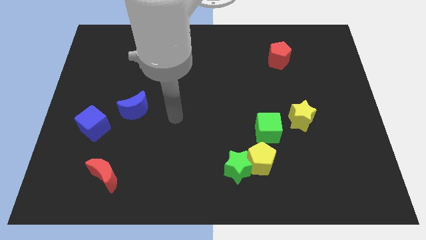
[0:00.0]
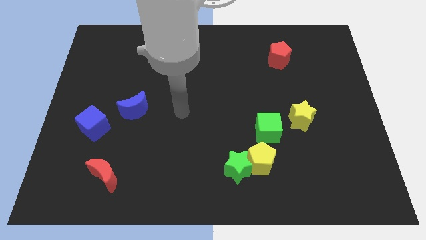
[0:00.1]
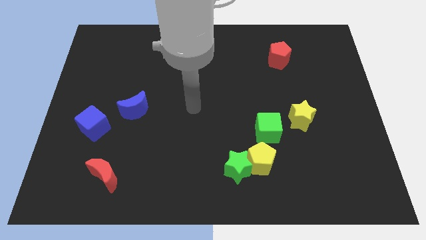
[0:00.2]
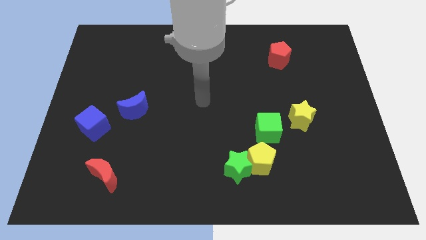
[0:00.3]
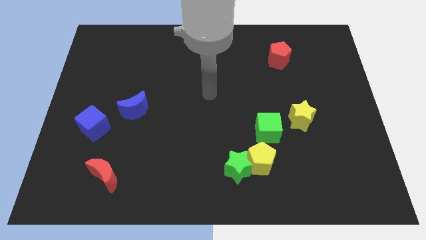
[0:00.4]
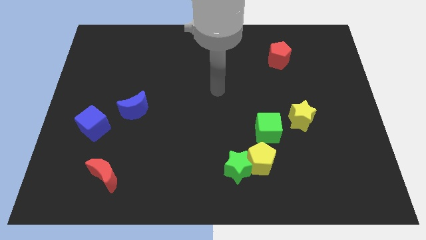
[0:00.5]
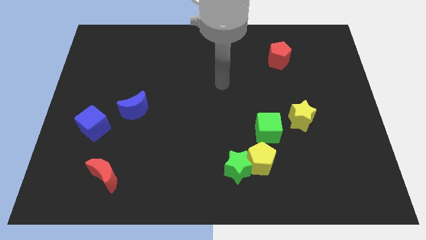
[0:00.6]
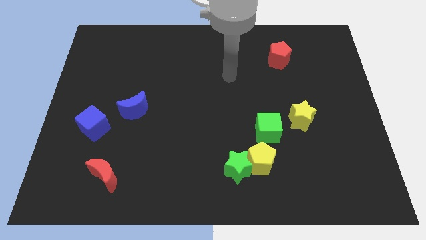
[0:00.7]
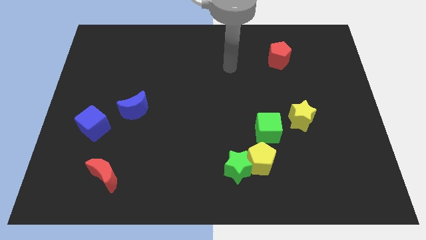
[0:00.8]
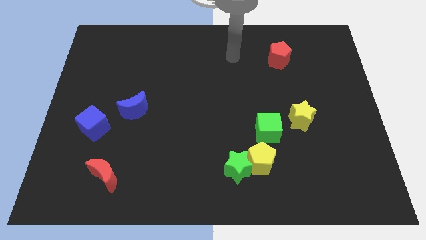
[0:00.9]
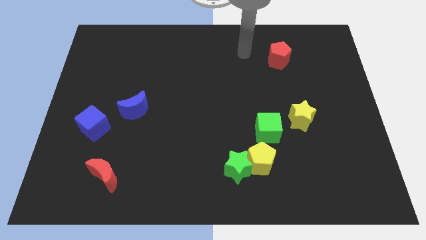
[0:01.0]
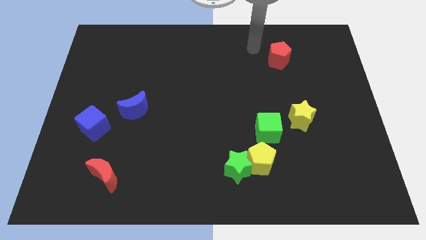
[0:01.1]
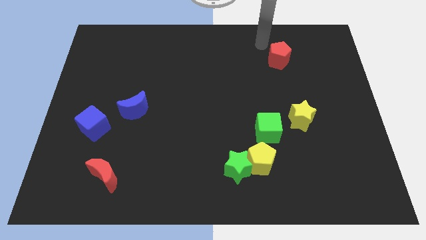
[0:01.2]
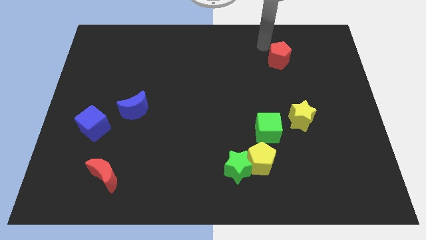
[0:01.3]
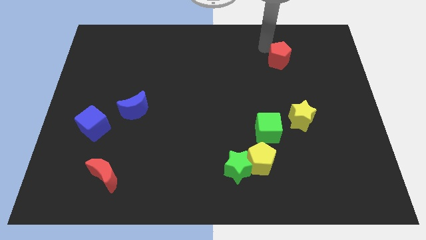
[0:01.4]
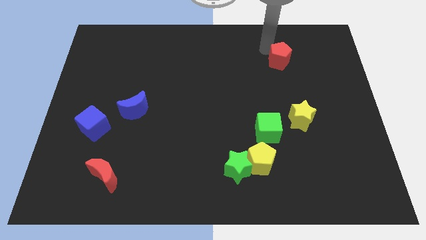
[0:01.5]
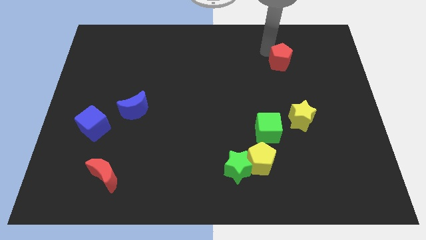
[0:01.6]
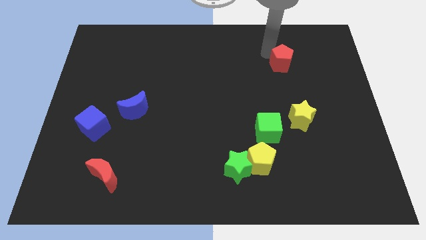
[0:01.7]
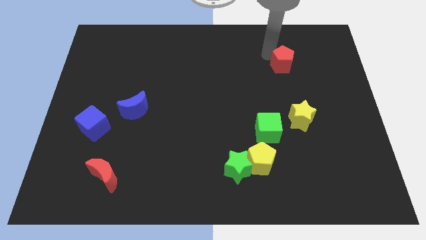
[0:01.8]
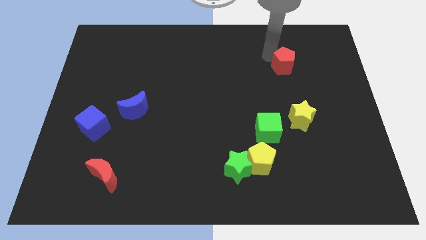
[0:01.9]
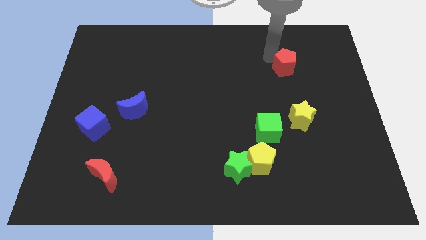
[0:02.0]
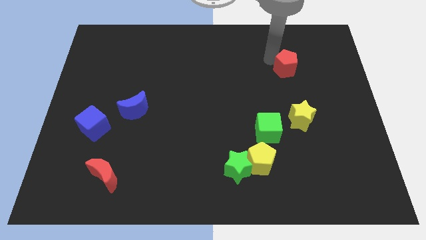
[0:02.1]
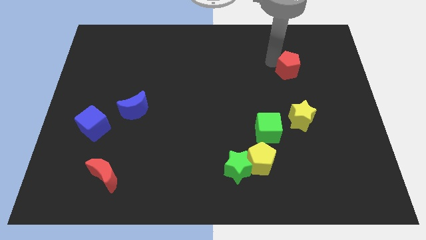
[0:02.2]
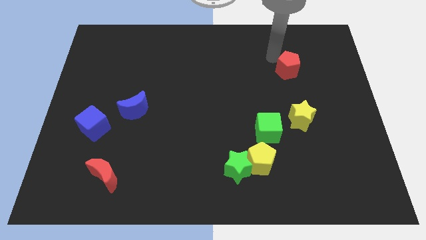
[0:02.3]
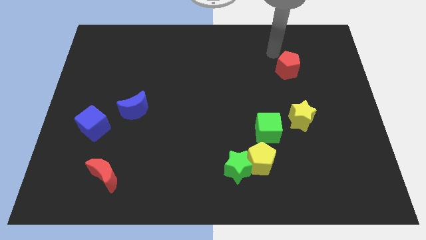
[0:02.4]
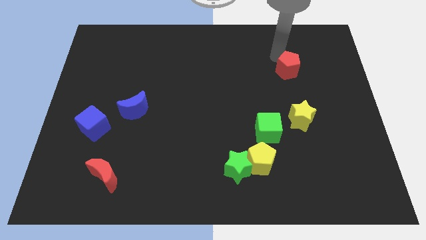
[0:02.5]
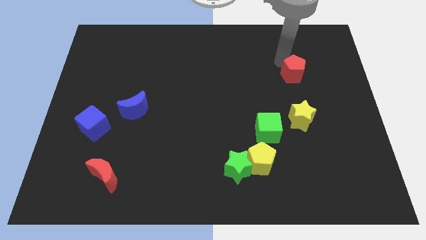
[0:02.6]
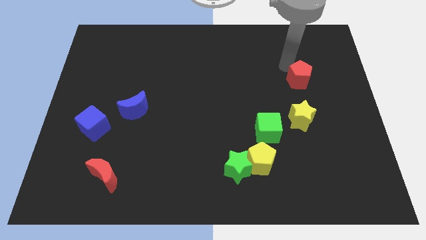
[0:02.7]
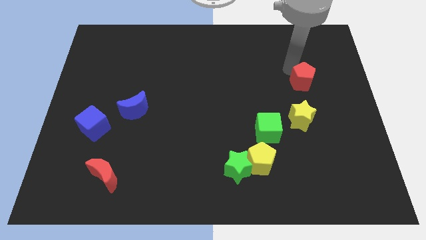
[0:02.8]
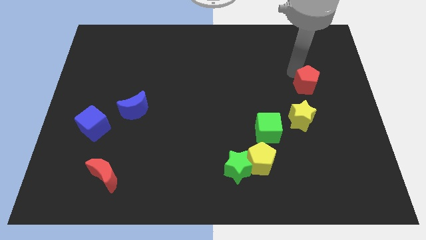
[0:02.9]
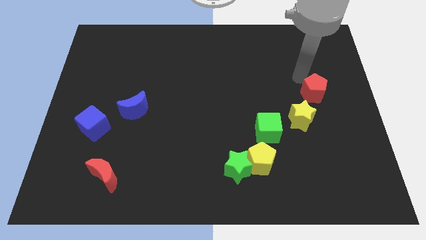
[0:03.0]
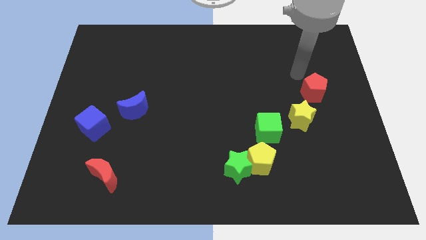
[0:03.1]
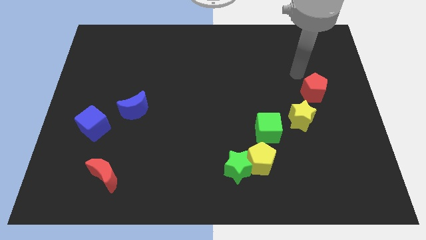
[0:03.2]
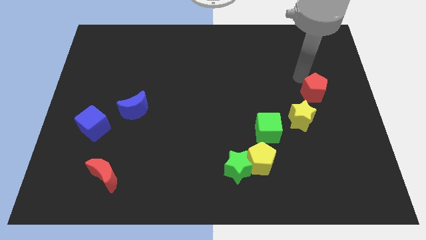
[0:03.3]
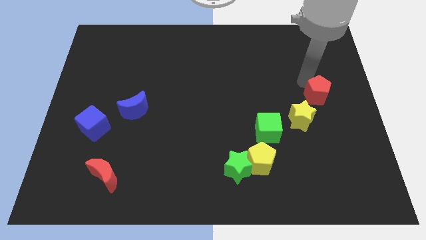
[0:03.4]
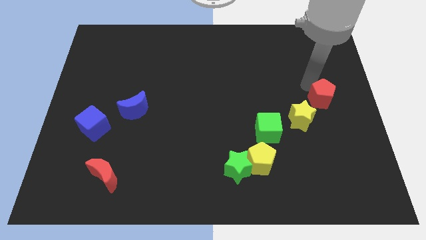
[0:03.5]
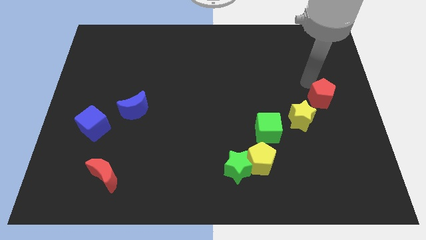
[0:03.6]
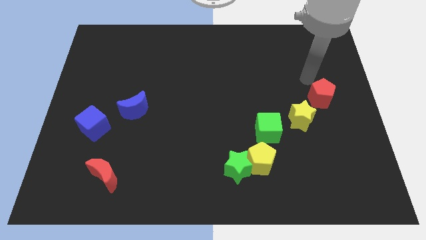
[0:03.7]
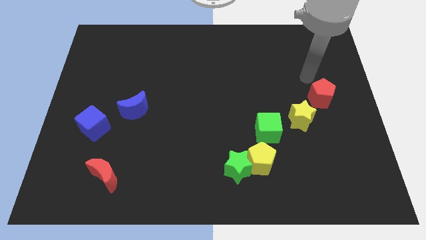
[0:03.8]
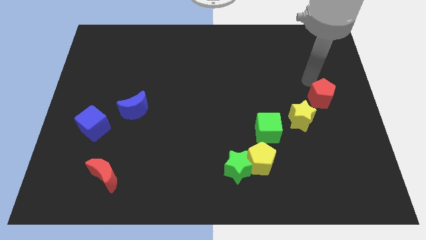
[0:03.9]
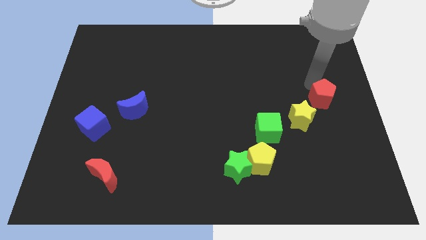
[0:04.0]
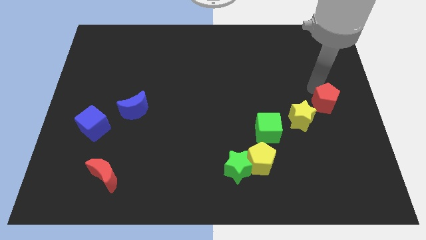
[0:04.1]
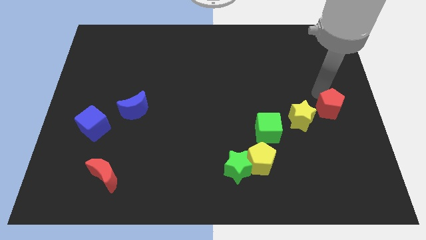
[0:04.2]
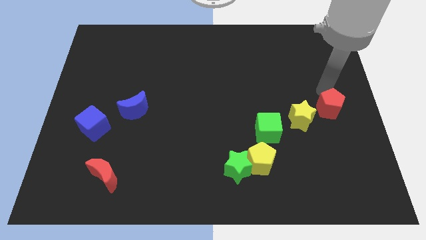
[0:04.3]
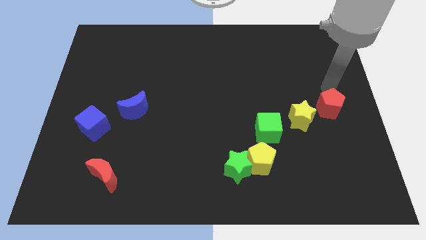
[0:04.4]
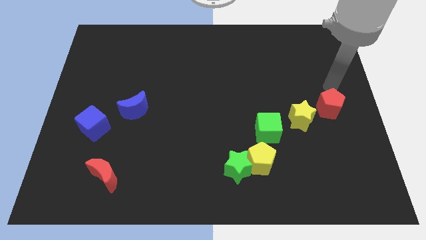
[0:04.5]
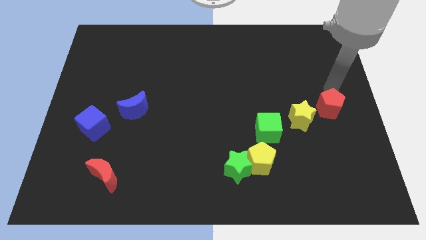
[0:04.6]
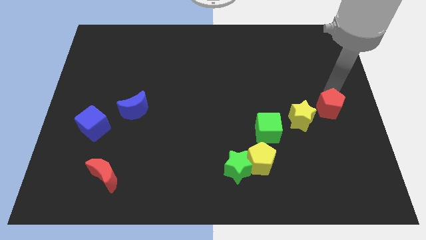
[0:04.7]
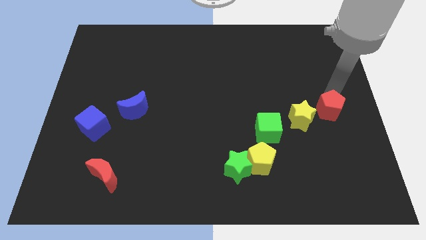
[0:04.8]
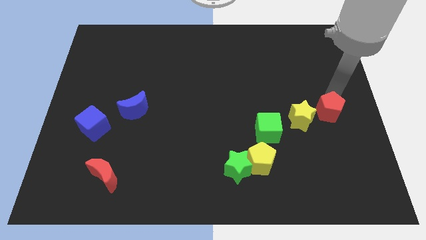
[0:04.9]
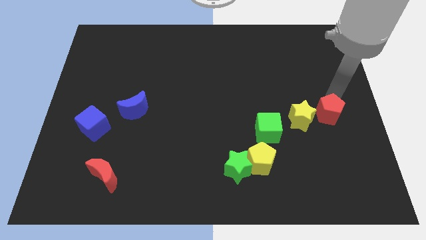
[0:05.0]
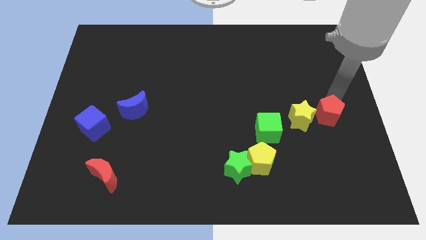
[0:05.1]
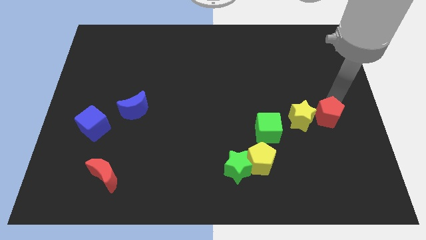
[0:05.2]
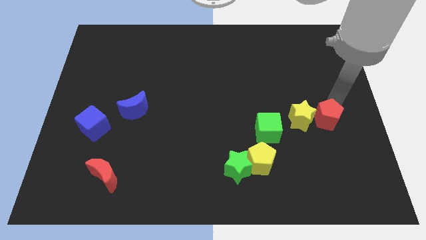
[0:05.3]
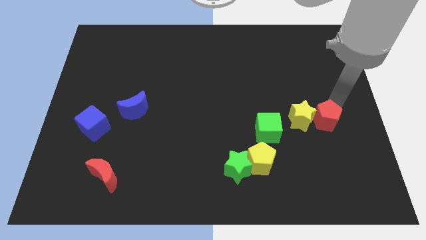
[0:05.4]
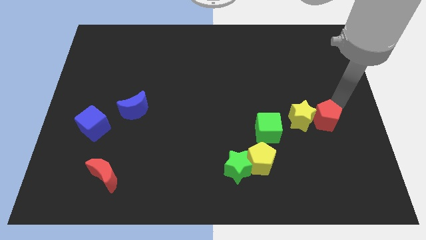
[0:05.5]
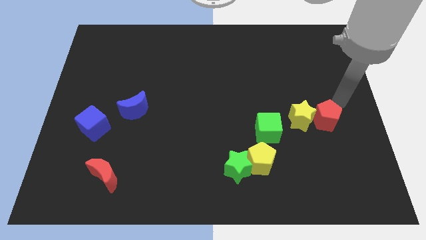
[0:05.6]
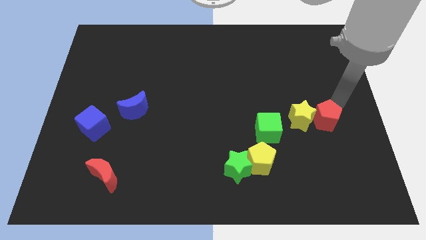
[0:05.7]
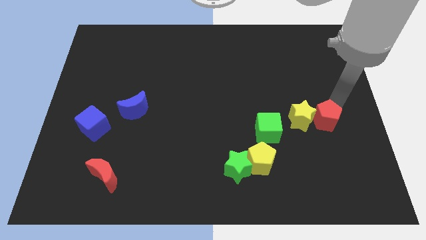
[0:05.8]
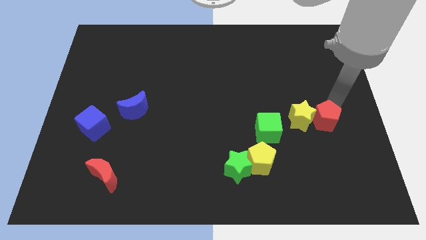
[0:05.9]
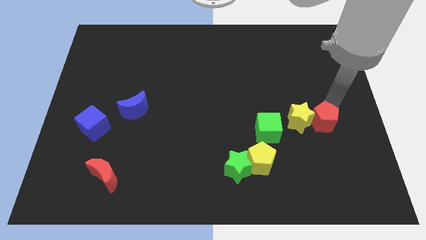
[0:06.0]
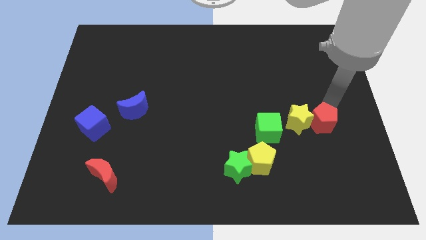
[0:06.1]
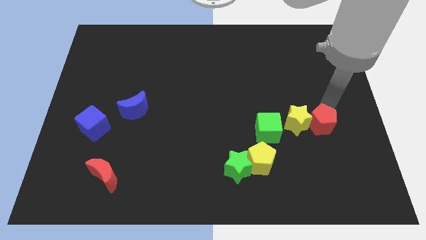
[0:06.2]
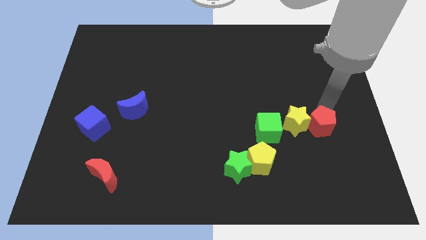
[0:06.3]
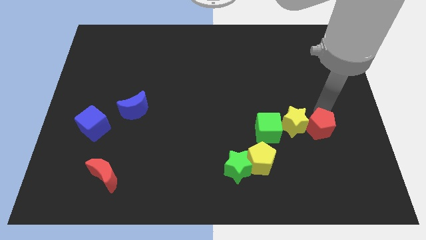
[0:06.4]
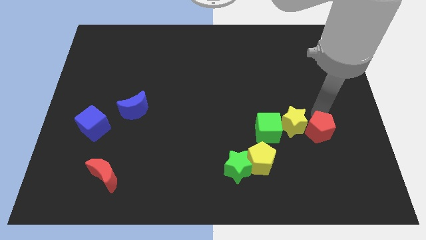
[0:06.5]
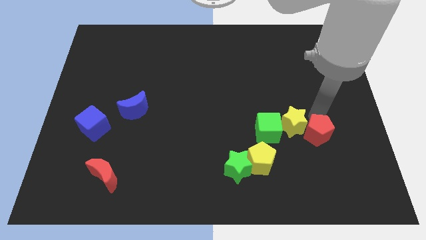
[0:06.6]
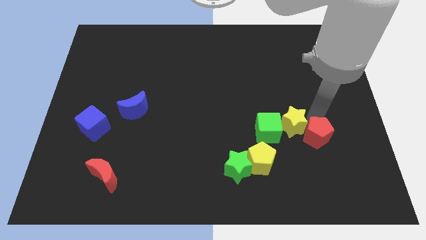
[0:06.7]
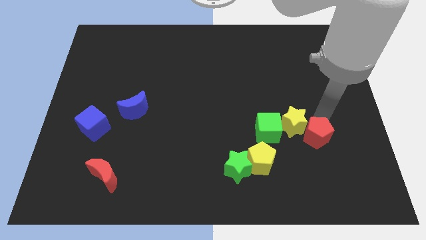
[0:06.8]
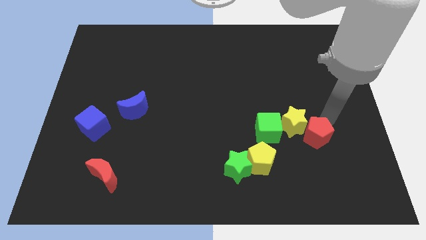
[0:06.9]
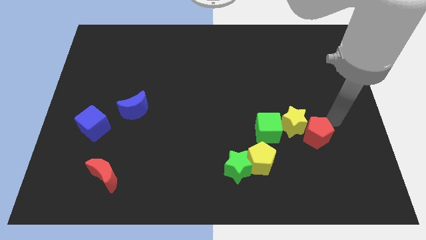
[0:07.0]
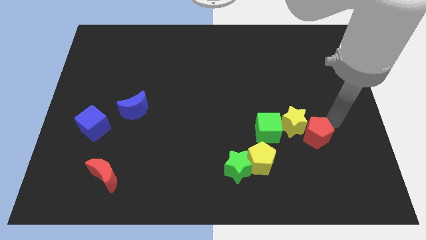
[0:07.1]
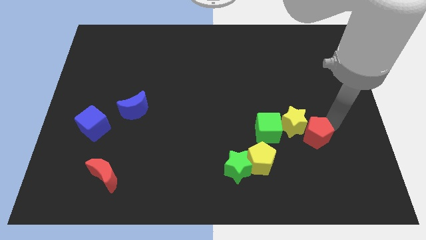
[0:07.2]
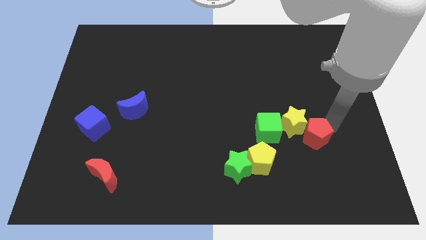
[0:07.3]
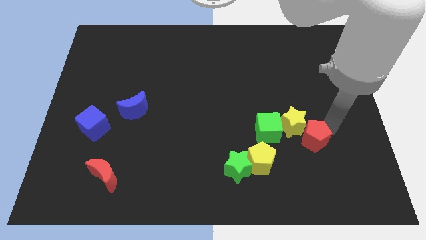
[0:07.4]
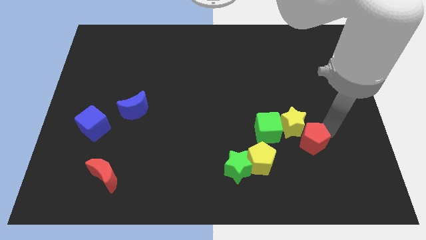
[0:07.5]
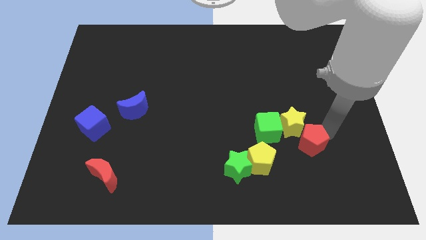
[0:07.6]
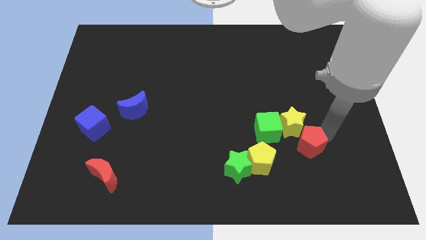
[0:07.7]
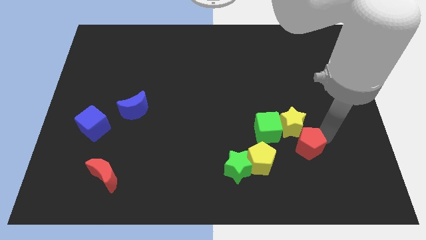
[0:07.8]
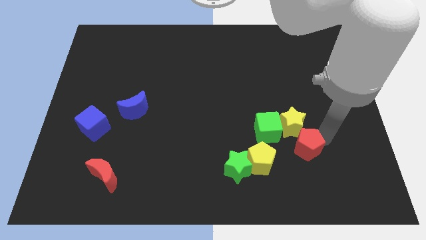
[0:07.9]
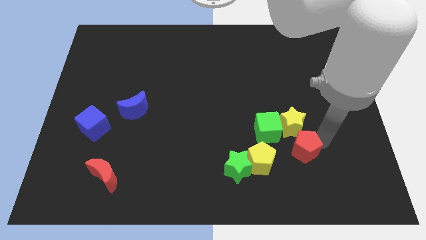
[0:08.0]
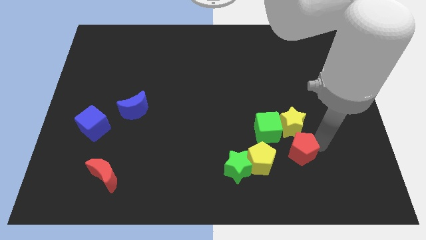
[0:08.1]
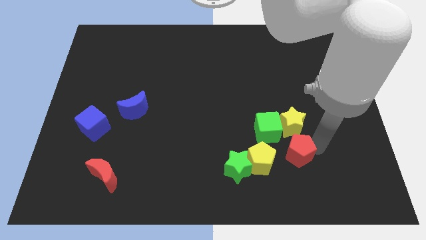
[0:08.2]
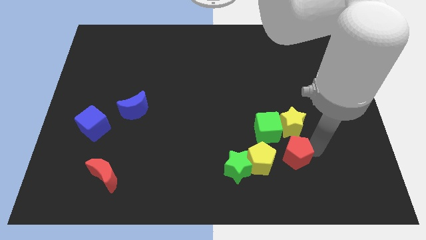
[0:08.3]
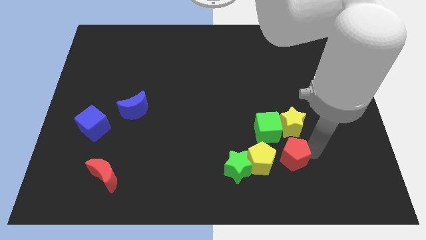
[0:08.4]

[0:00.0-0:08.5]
put the red pentagon to the bottom of the green cube
